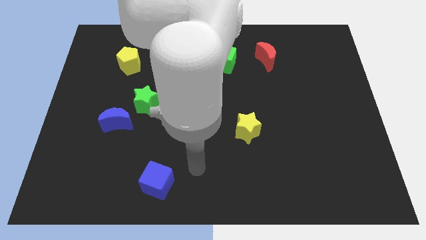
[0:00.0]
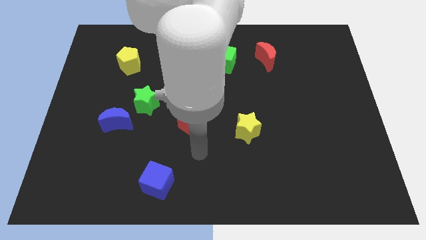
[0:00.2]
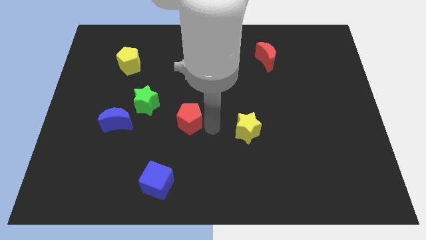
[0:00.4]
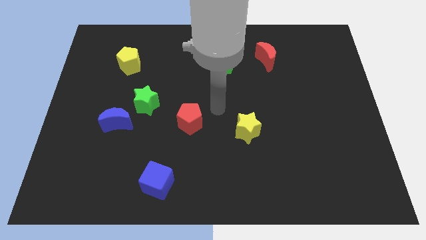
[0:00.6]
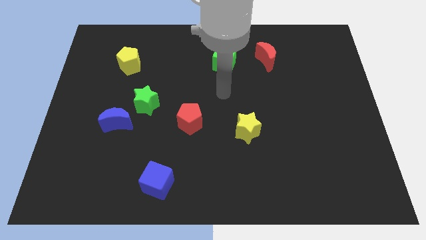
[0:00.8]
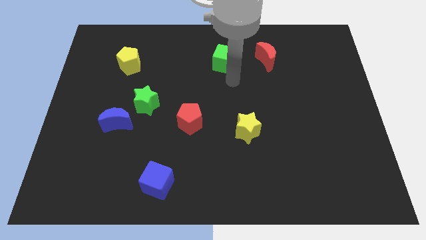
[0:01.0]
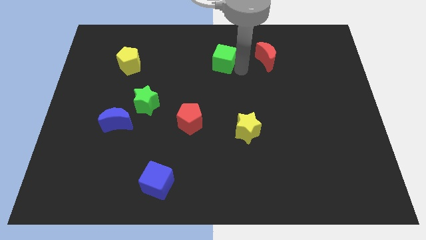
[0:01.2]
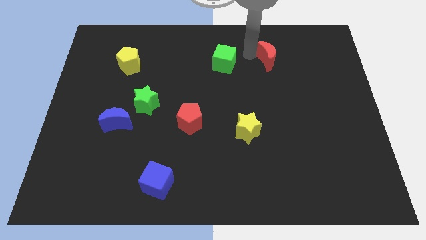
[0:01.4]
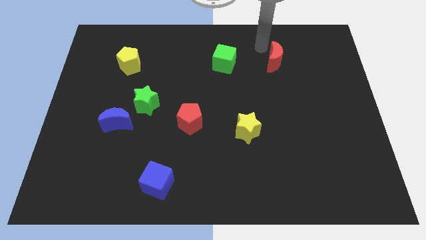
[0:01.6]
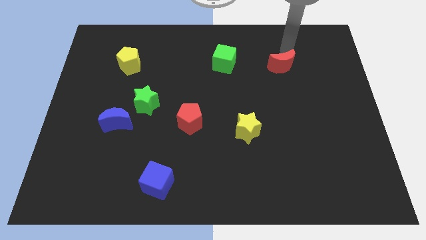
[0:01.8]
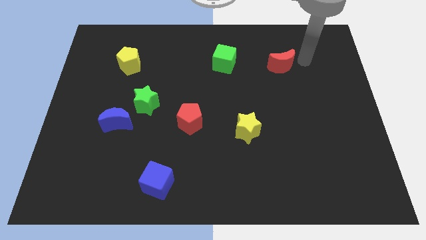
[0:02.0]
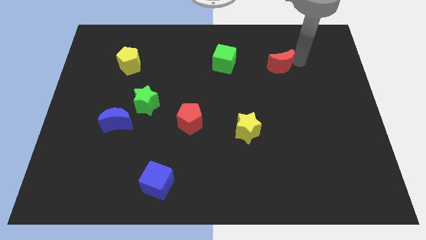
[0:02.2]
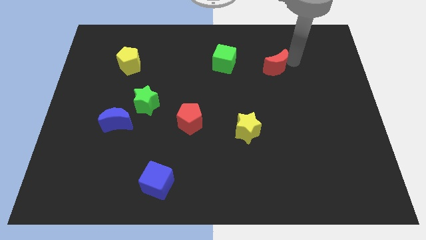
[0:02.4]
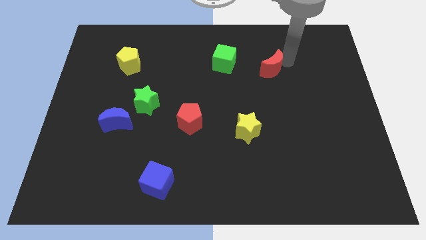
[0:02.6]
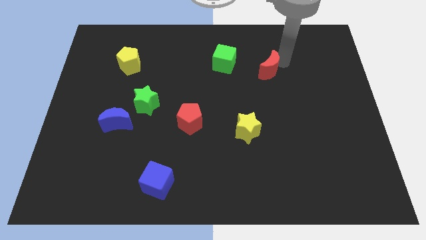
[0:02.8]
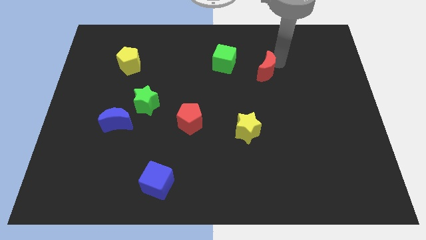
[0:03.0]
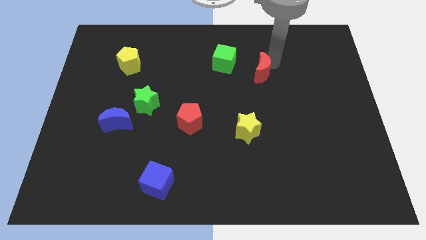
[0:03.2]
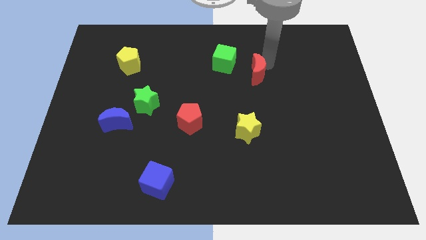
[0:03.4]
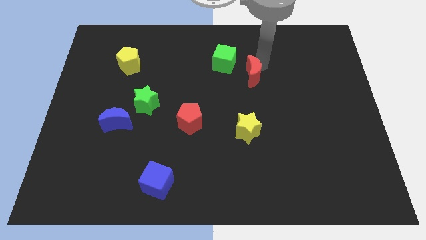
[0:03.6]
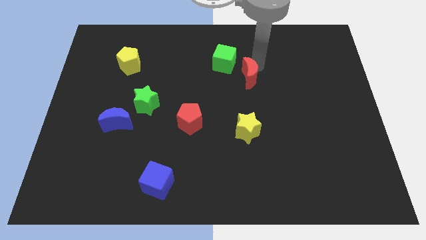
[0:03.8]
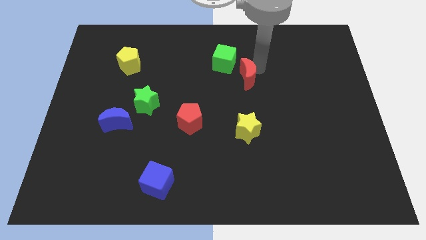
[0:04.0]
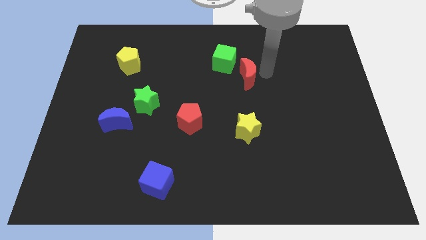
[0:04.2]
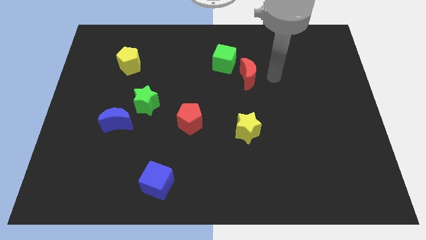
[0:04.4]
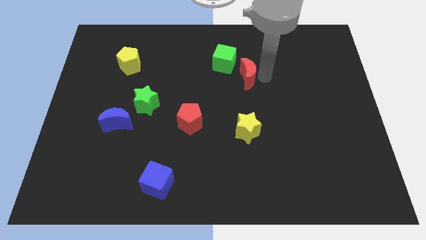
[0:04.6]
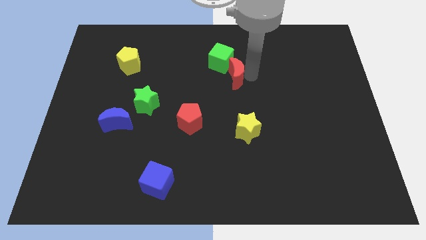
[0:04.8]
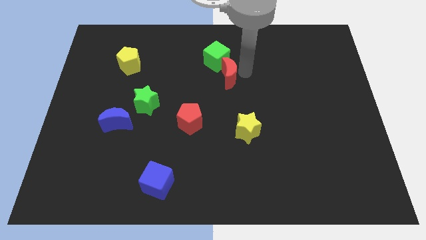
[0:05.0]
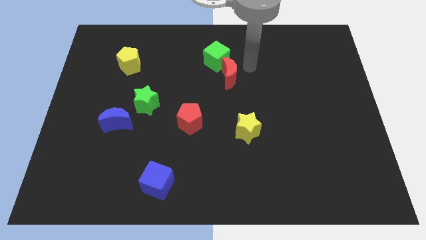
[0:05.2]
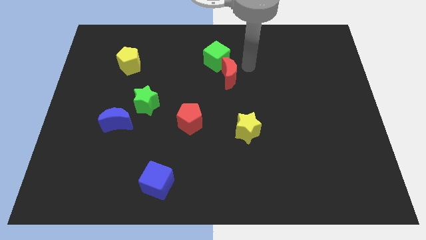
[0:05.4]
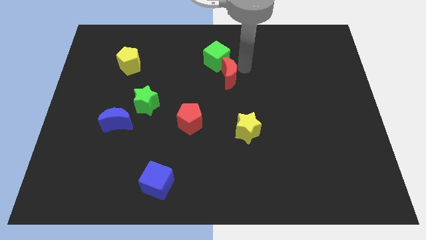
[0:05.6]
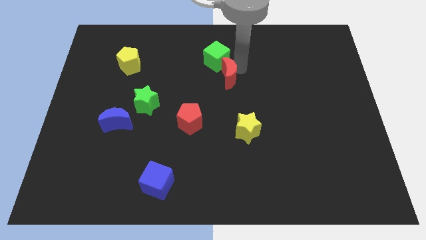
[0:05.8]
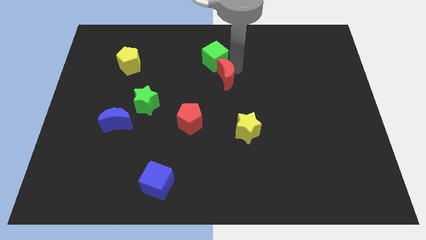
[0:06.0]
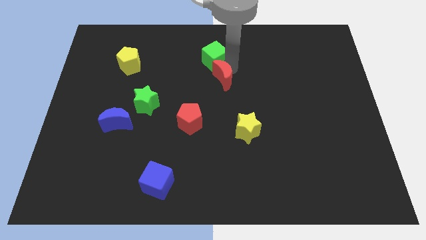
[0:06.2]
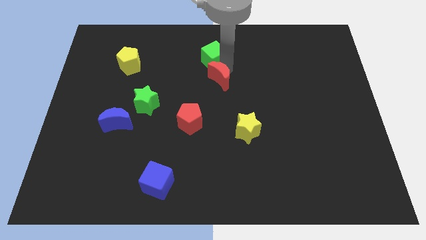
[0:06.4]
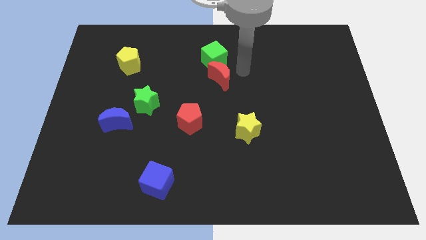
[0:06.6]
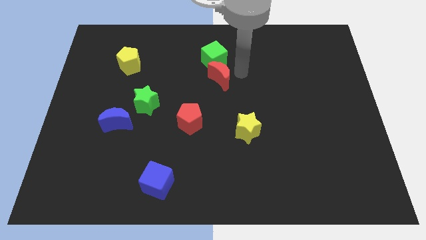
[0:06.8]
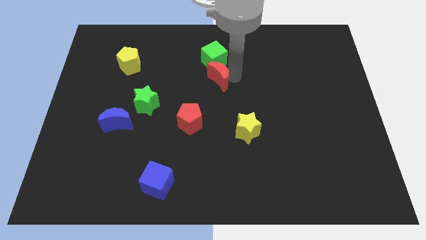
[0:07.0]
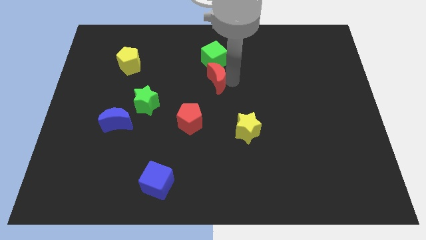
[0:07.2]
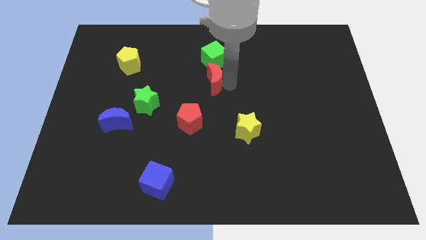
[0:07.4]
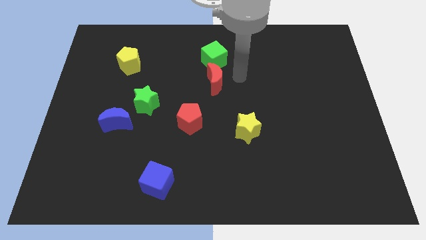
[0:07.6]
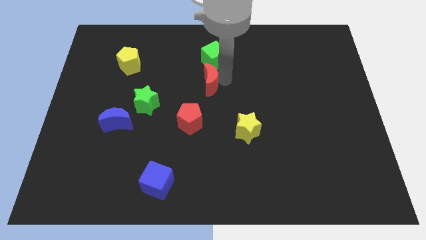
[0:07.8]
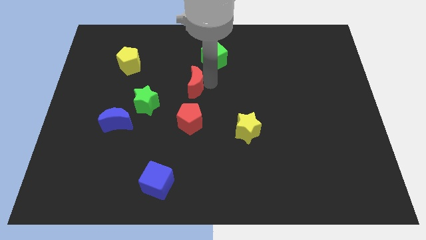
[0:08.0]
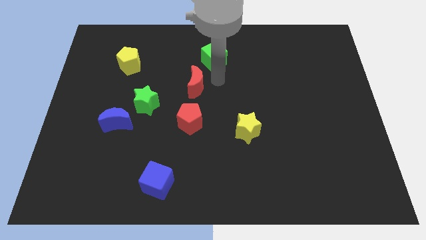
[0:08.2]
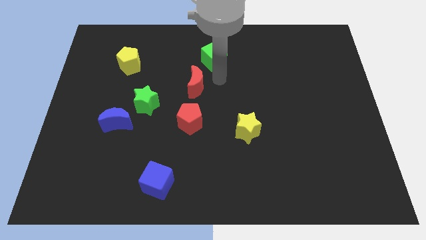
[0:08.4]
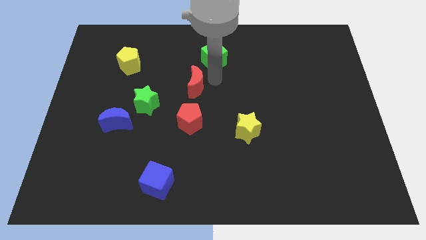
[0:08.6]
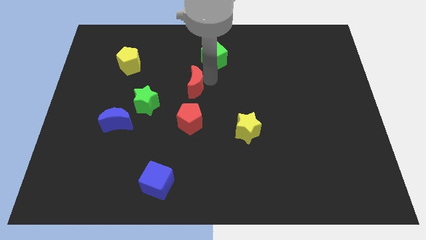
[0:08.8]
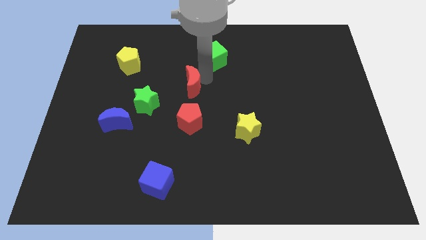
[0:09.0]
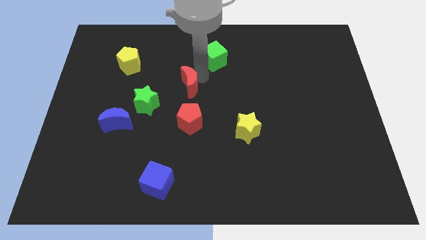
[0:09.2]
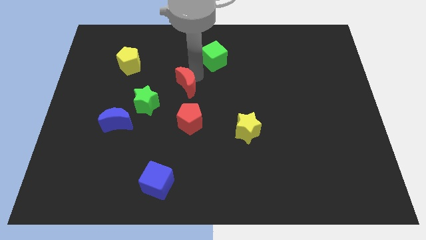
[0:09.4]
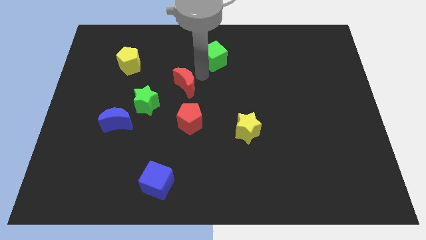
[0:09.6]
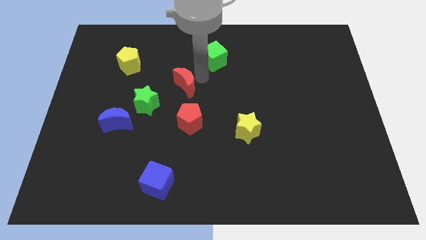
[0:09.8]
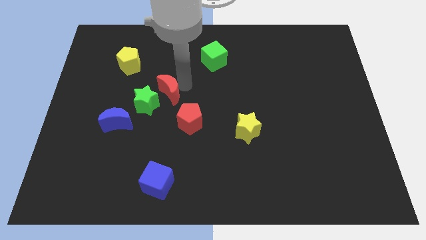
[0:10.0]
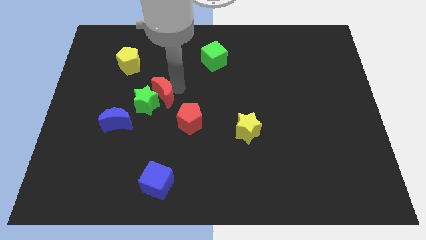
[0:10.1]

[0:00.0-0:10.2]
push the red moon next to the green star

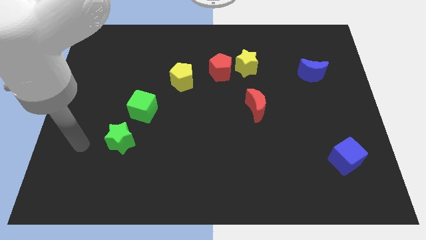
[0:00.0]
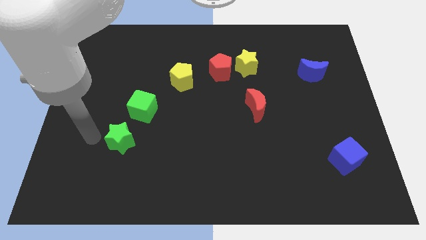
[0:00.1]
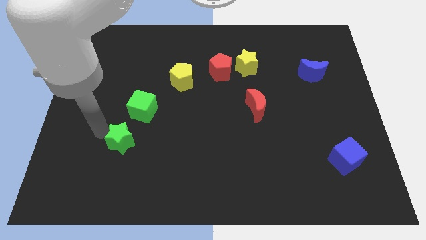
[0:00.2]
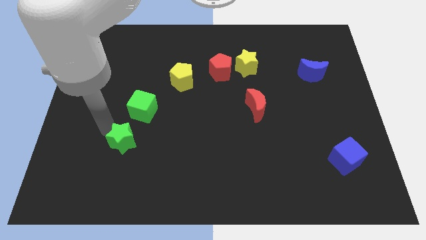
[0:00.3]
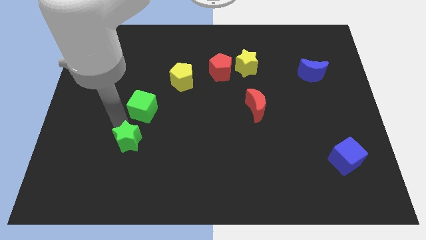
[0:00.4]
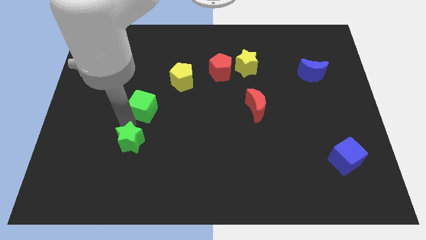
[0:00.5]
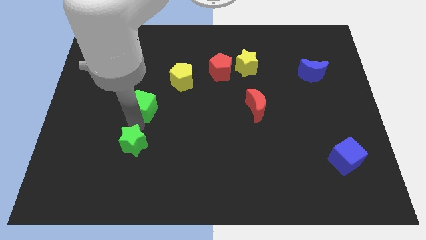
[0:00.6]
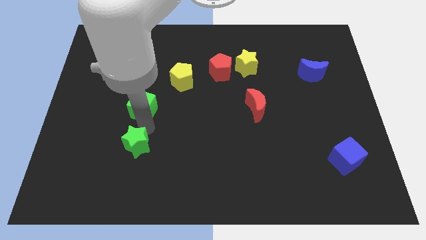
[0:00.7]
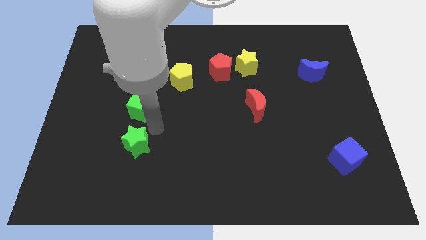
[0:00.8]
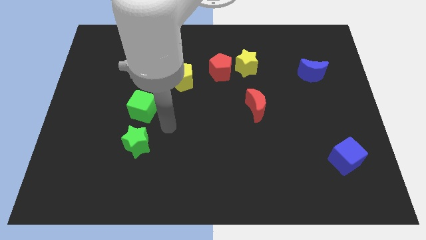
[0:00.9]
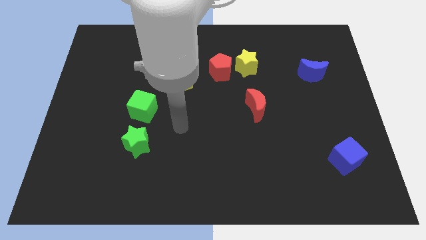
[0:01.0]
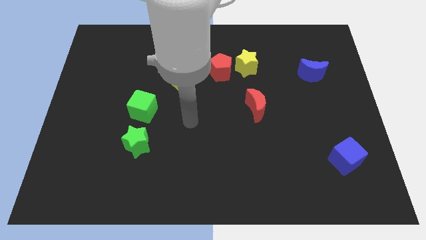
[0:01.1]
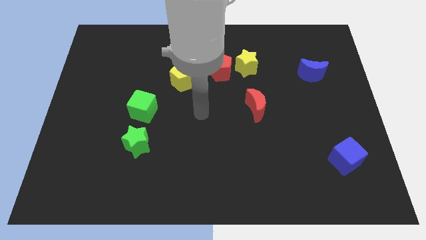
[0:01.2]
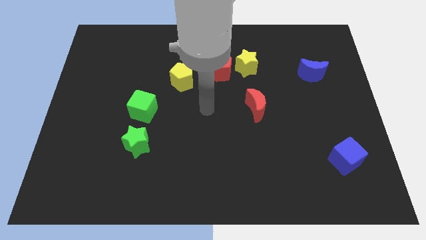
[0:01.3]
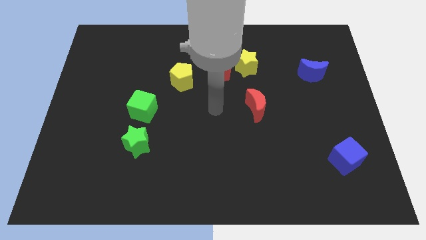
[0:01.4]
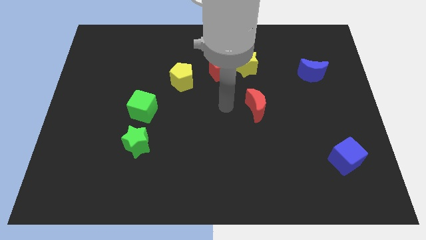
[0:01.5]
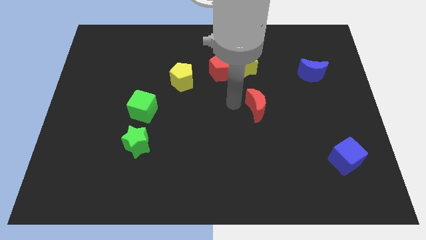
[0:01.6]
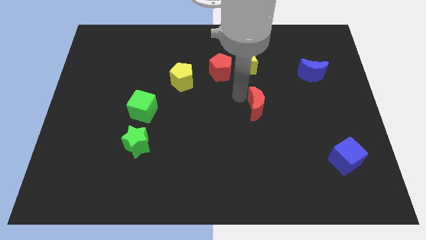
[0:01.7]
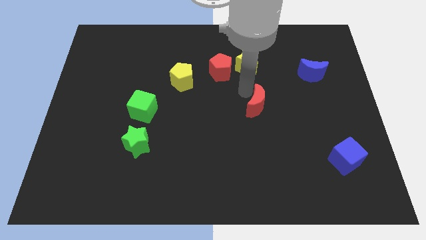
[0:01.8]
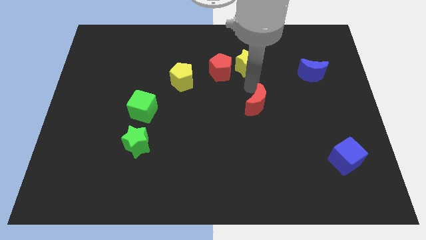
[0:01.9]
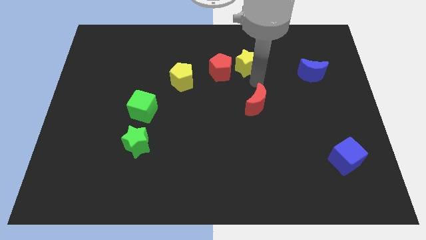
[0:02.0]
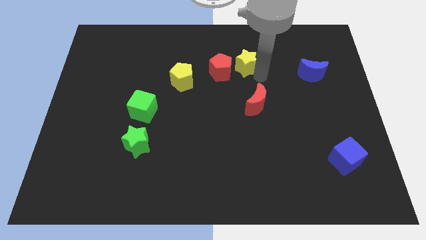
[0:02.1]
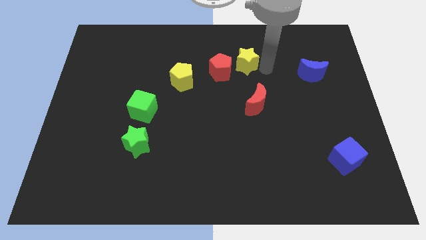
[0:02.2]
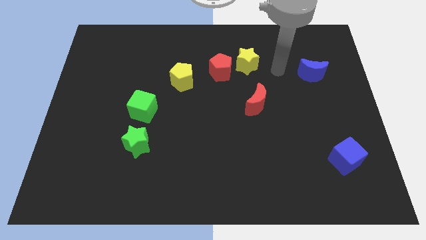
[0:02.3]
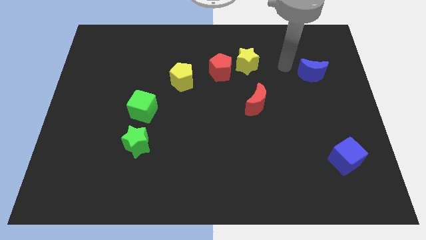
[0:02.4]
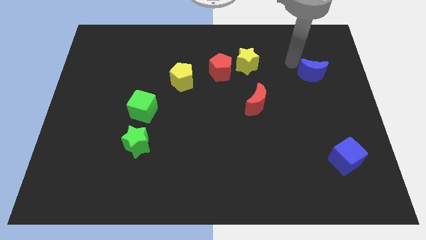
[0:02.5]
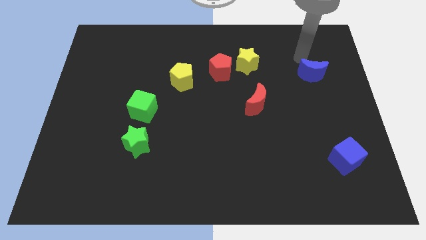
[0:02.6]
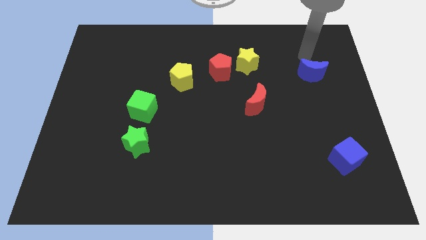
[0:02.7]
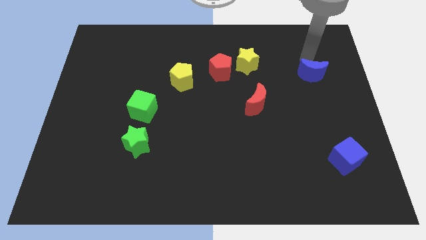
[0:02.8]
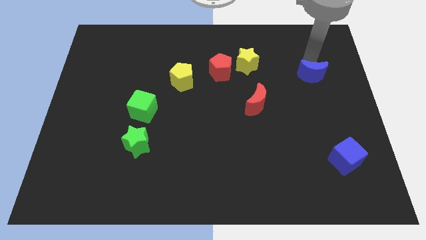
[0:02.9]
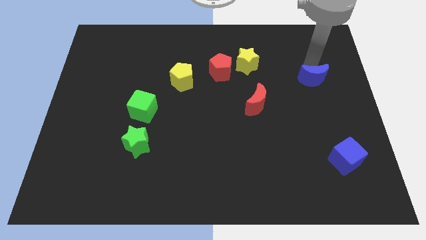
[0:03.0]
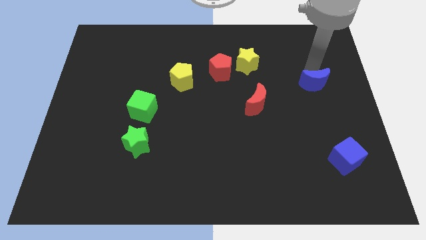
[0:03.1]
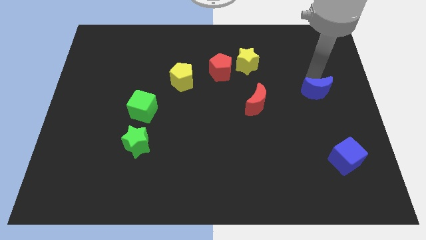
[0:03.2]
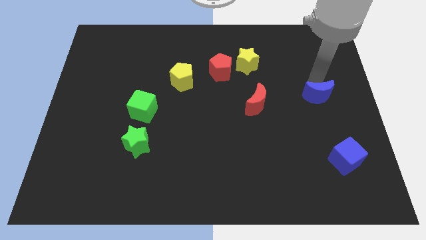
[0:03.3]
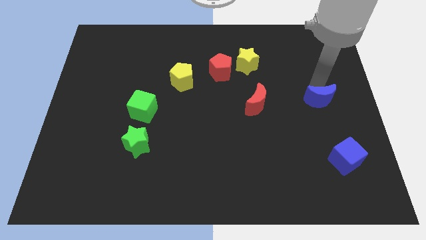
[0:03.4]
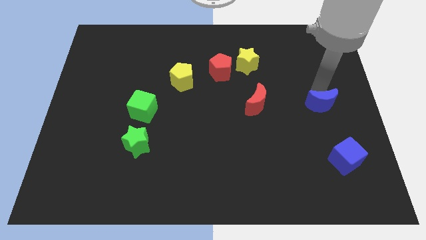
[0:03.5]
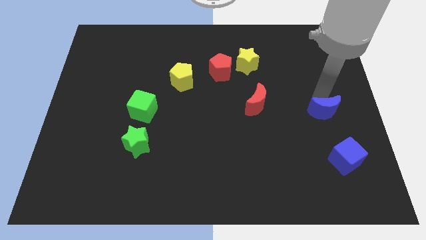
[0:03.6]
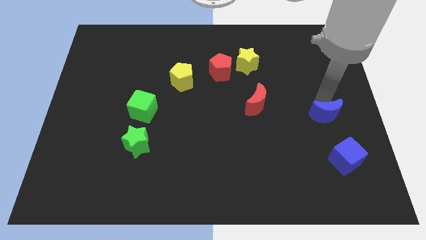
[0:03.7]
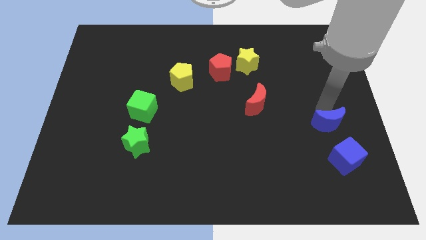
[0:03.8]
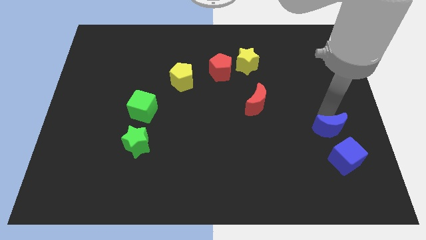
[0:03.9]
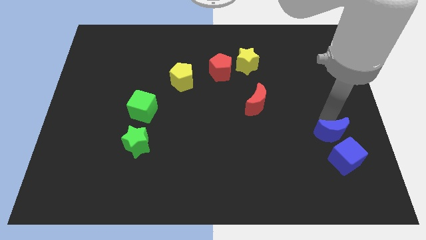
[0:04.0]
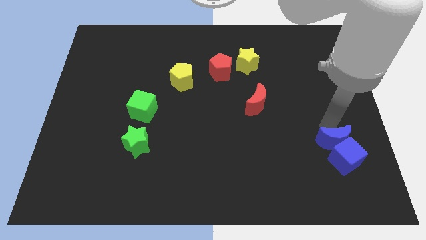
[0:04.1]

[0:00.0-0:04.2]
move the blue moon close to the blue cube
